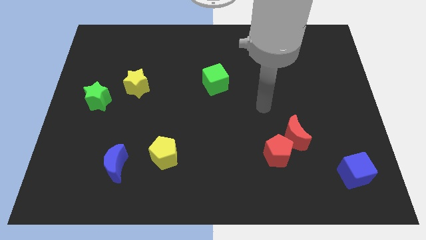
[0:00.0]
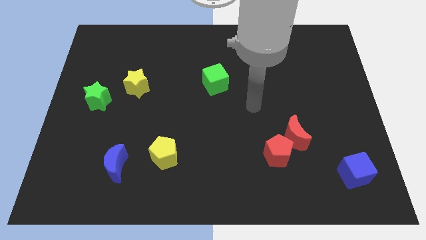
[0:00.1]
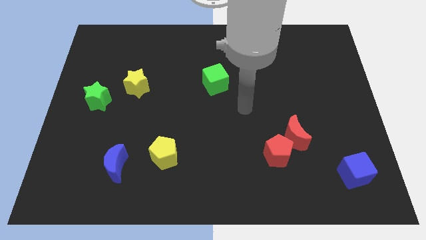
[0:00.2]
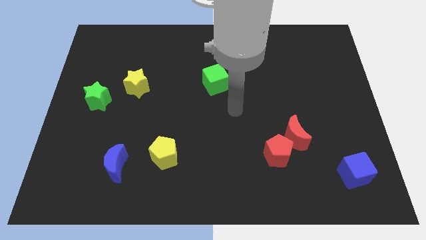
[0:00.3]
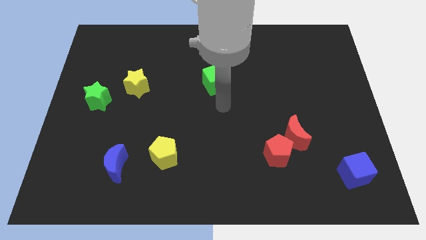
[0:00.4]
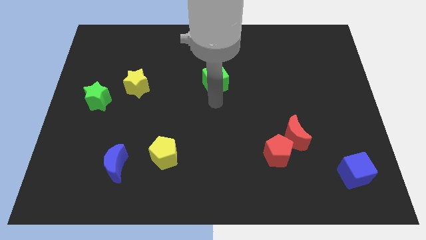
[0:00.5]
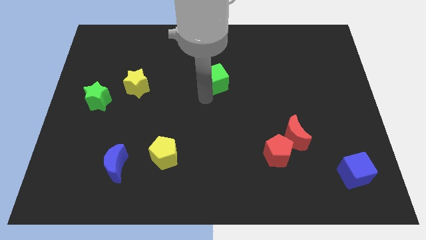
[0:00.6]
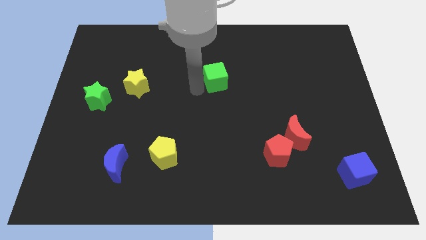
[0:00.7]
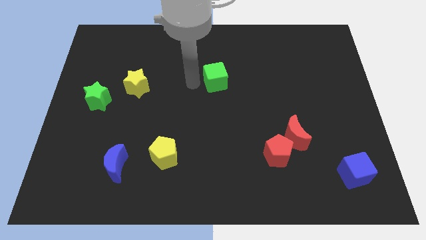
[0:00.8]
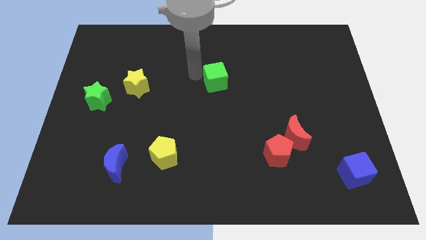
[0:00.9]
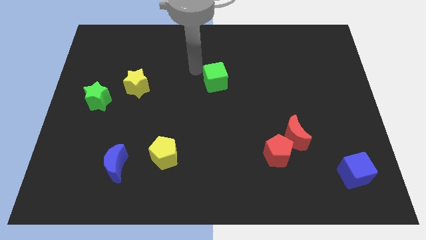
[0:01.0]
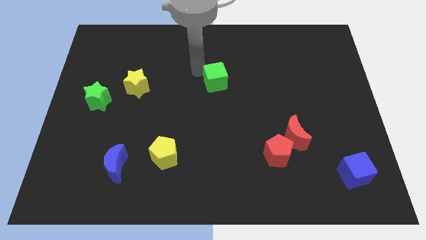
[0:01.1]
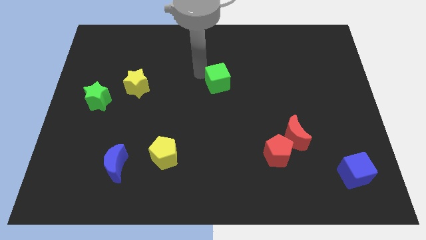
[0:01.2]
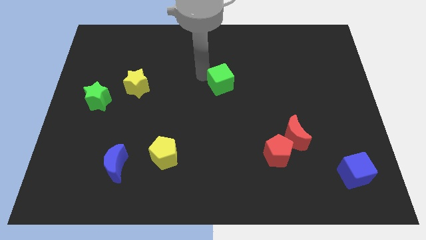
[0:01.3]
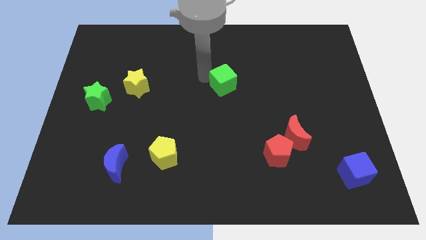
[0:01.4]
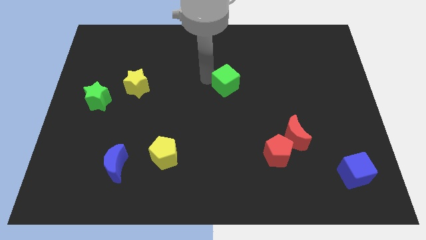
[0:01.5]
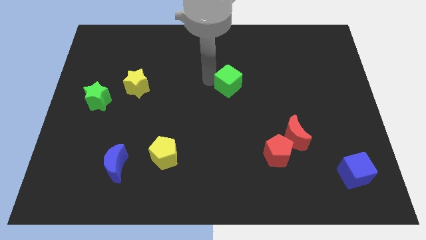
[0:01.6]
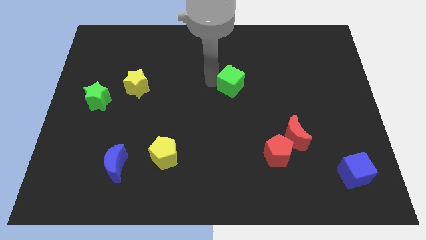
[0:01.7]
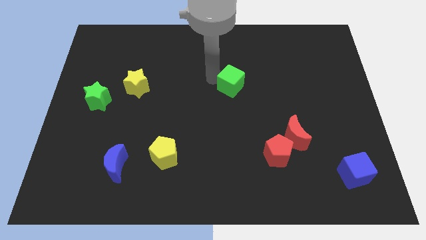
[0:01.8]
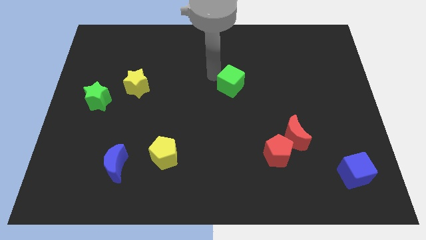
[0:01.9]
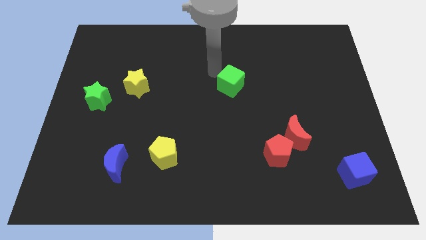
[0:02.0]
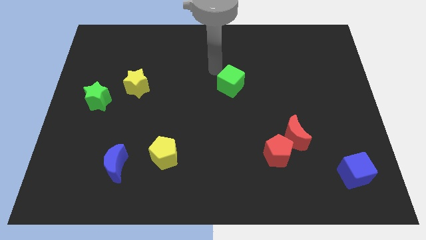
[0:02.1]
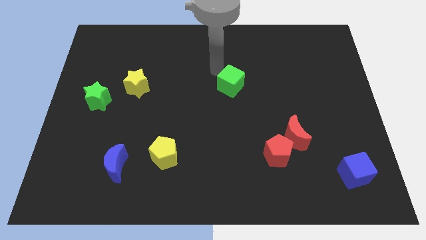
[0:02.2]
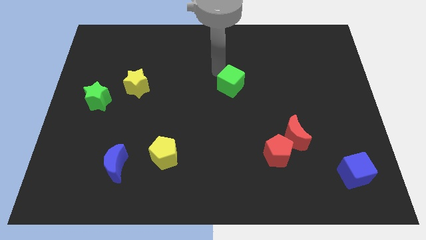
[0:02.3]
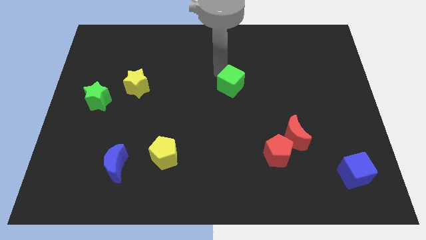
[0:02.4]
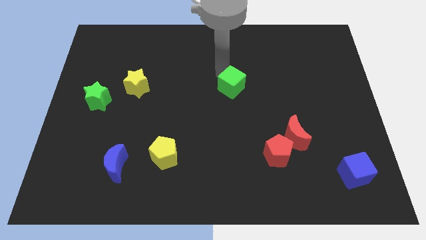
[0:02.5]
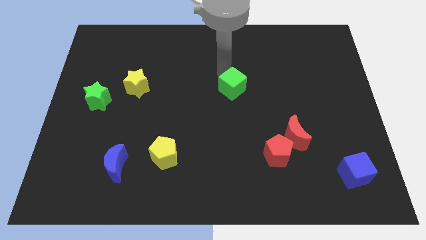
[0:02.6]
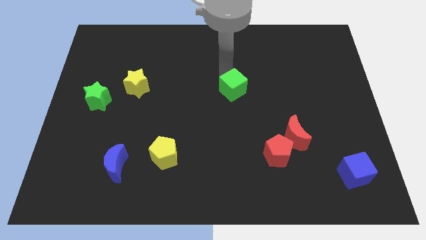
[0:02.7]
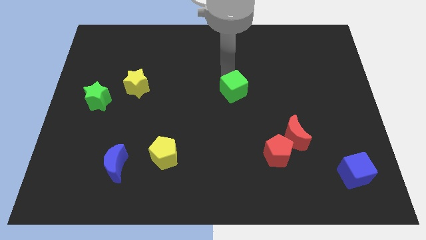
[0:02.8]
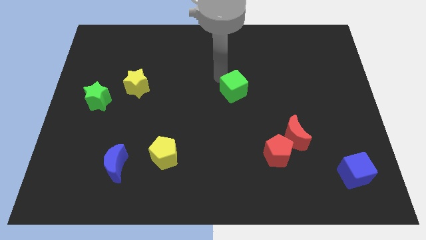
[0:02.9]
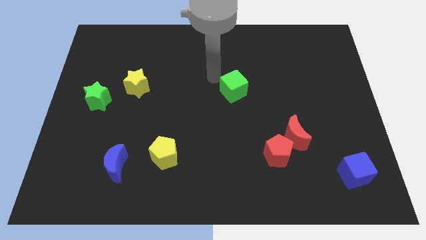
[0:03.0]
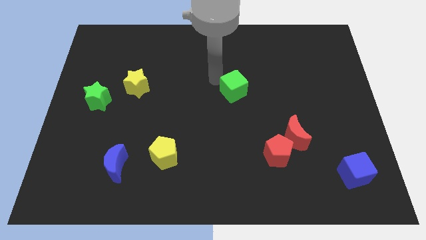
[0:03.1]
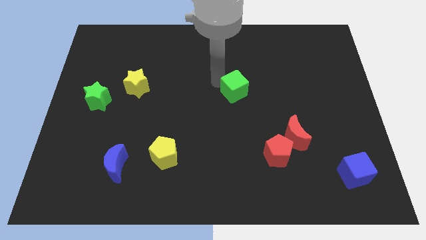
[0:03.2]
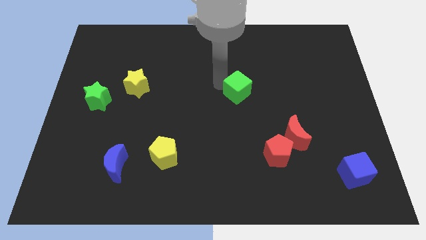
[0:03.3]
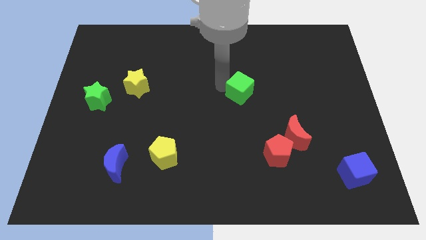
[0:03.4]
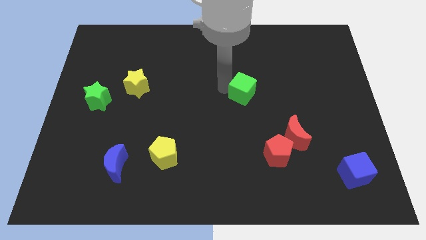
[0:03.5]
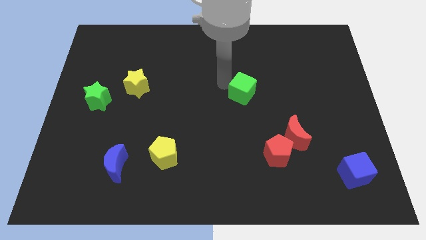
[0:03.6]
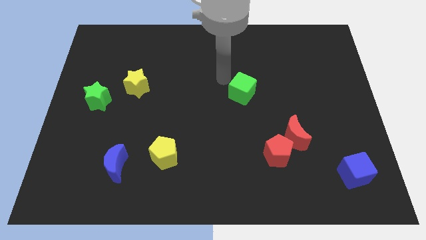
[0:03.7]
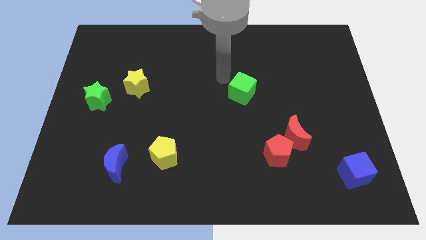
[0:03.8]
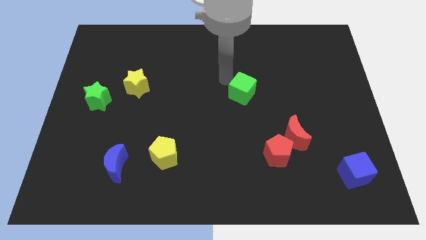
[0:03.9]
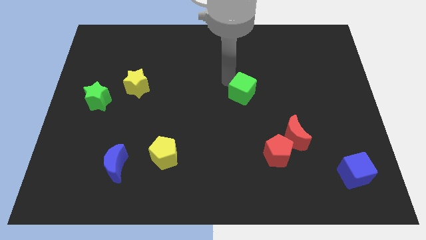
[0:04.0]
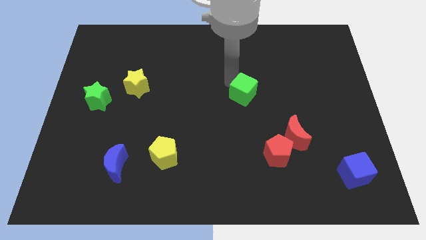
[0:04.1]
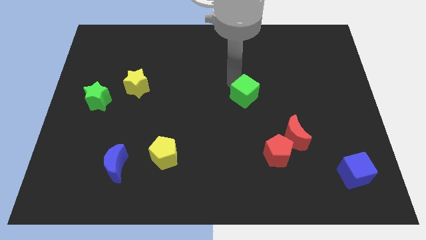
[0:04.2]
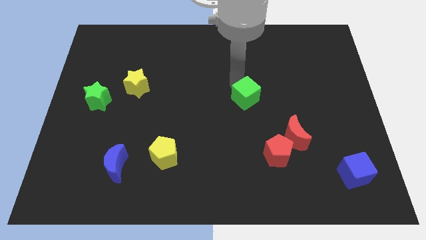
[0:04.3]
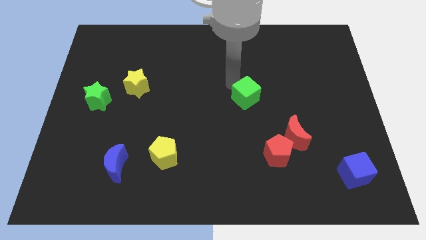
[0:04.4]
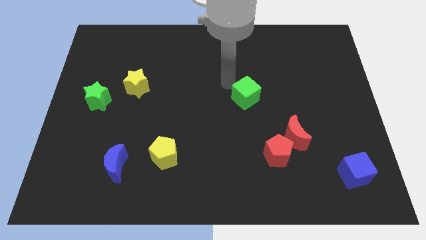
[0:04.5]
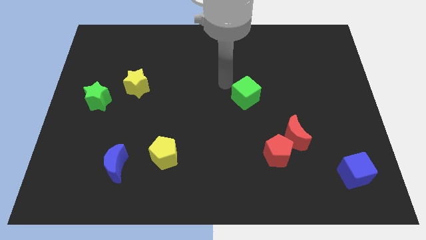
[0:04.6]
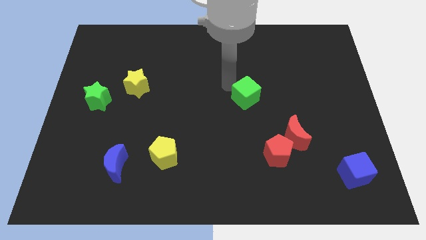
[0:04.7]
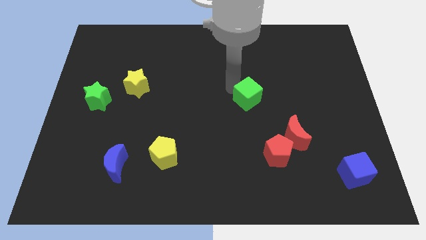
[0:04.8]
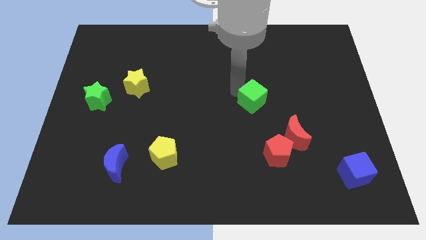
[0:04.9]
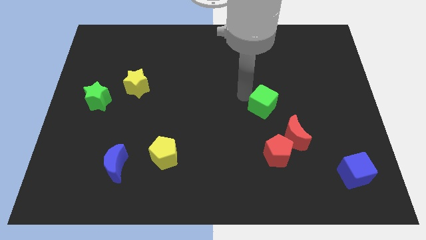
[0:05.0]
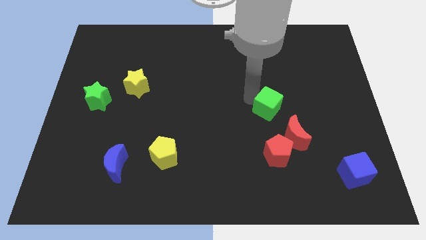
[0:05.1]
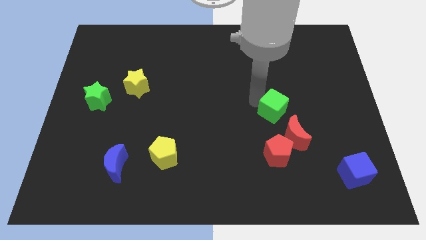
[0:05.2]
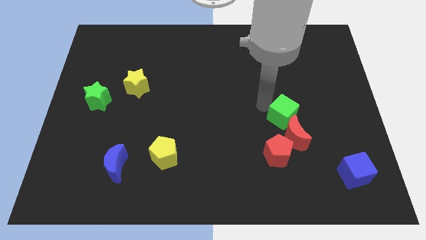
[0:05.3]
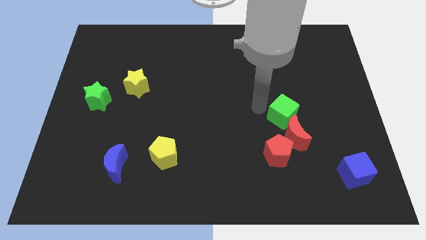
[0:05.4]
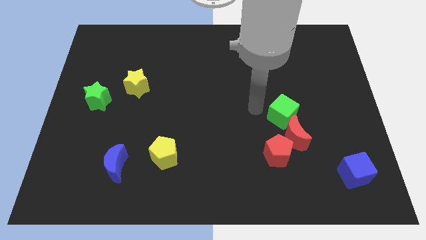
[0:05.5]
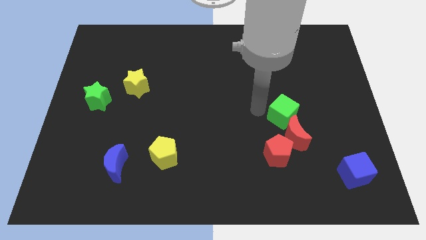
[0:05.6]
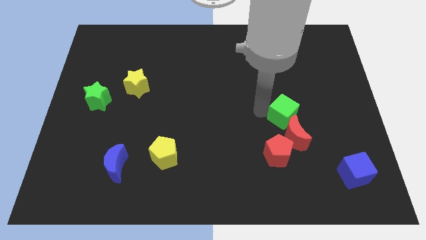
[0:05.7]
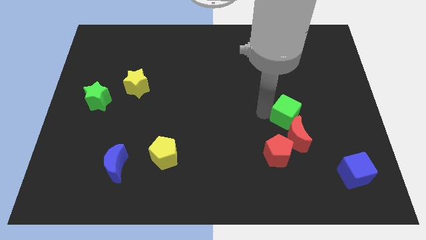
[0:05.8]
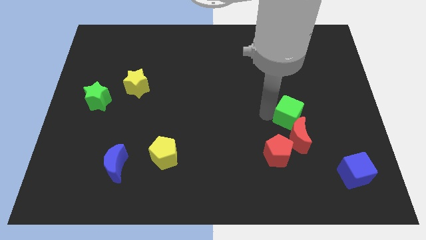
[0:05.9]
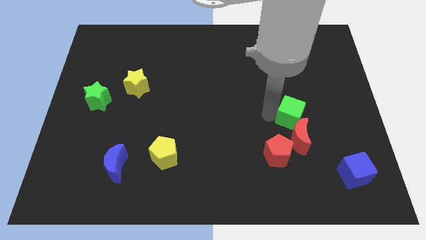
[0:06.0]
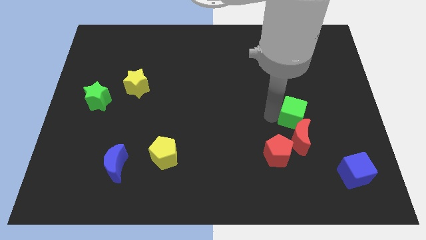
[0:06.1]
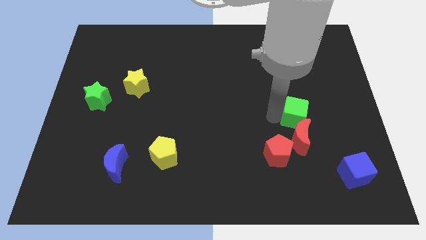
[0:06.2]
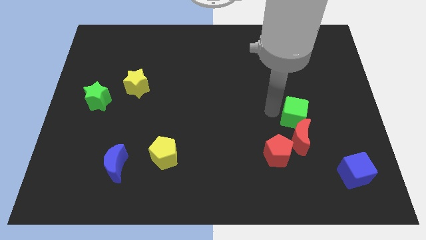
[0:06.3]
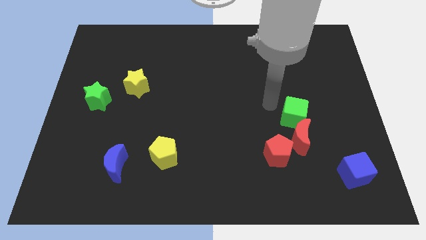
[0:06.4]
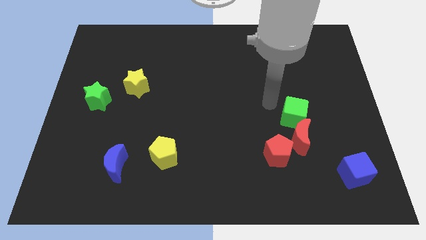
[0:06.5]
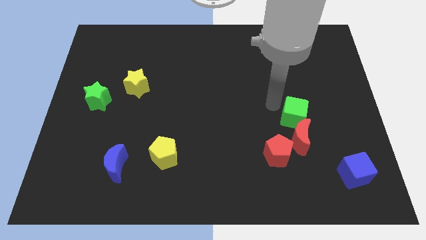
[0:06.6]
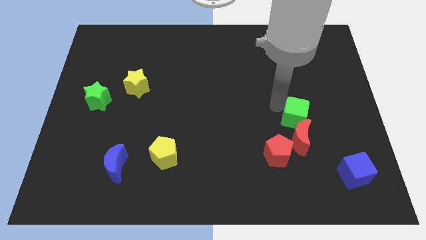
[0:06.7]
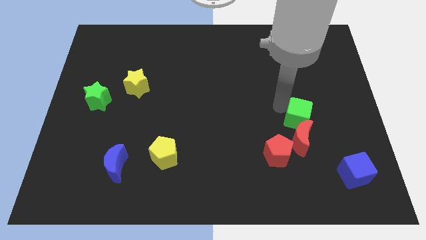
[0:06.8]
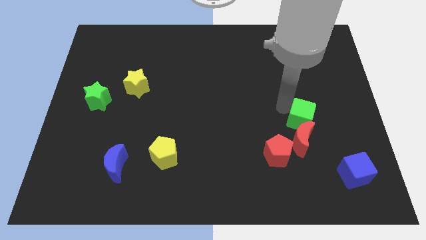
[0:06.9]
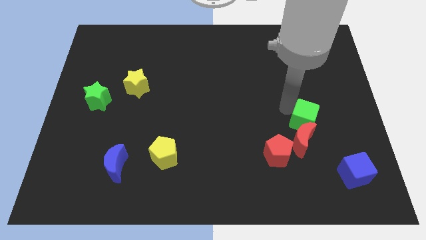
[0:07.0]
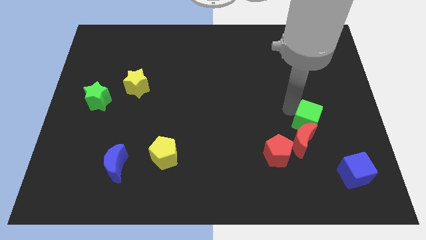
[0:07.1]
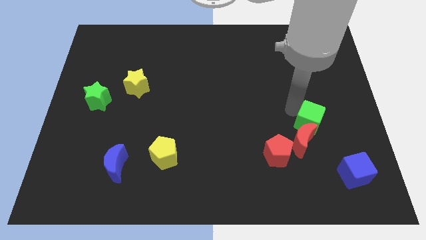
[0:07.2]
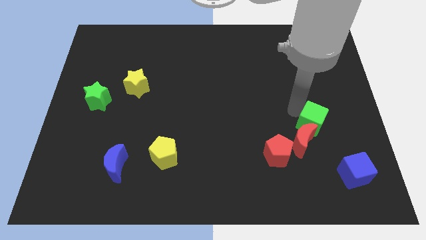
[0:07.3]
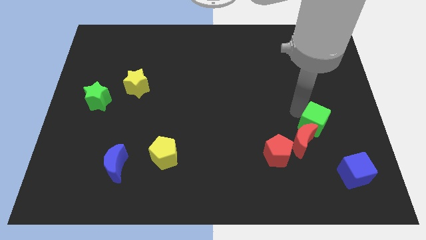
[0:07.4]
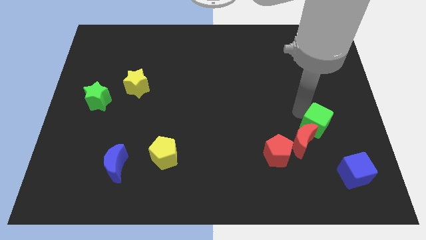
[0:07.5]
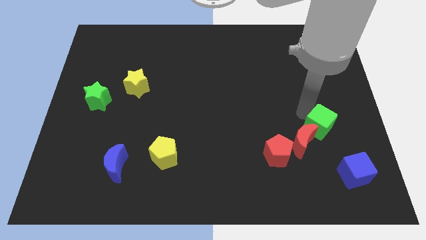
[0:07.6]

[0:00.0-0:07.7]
slide the green cube just right of the red moon
